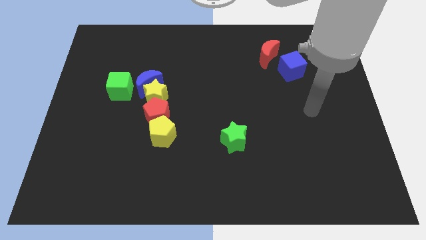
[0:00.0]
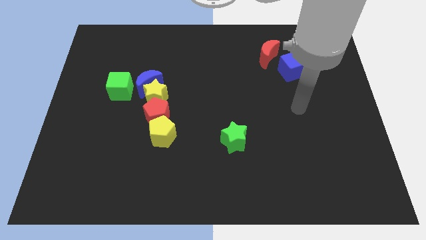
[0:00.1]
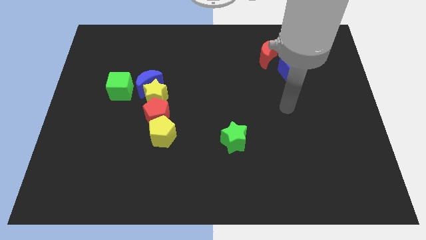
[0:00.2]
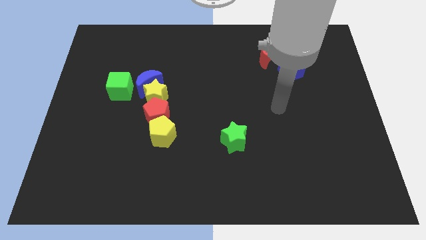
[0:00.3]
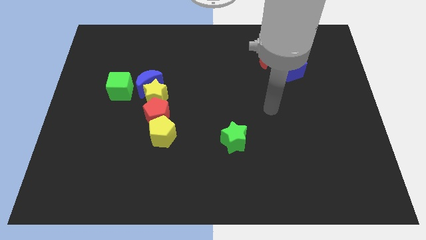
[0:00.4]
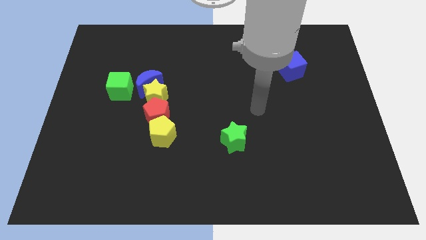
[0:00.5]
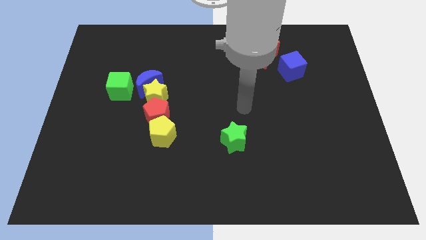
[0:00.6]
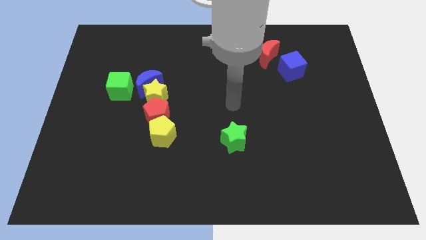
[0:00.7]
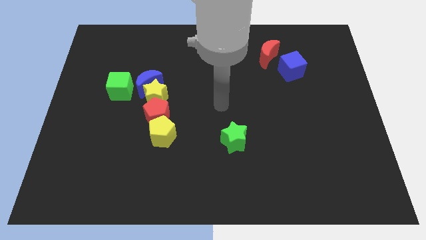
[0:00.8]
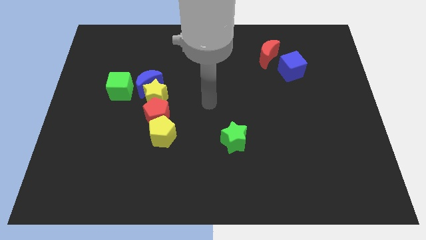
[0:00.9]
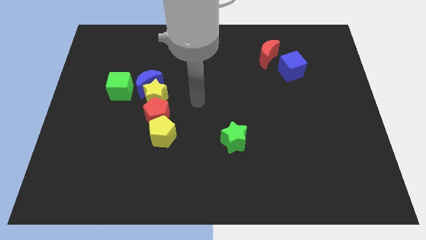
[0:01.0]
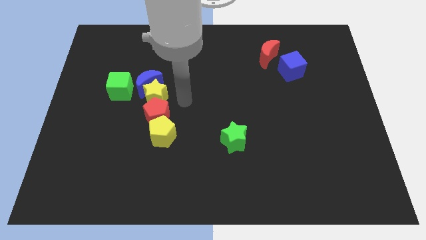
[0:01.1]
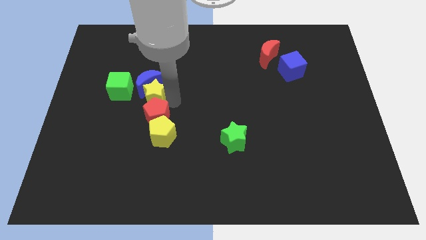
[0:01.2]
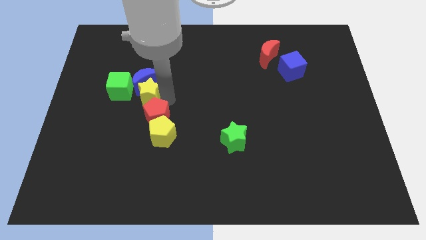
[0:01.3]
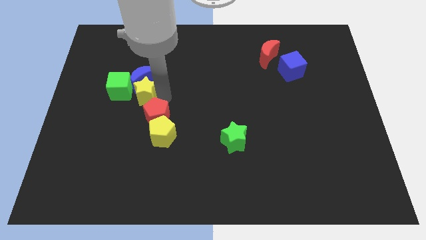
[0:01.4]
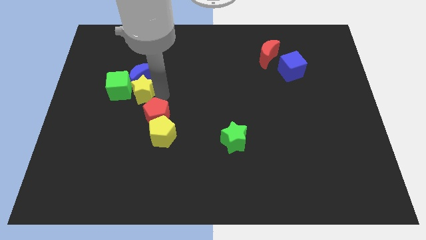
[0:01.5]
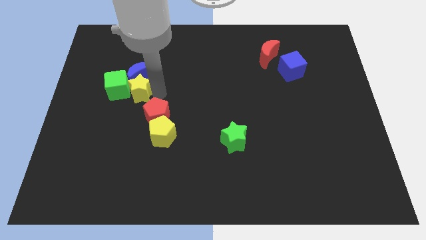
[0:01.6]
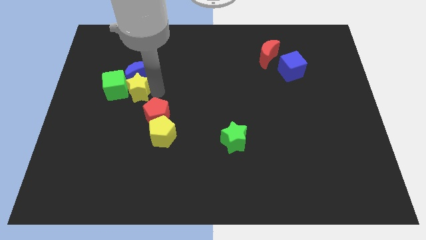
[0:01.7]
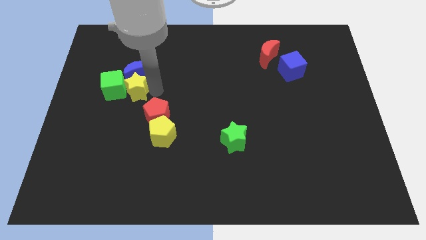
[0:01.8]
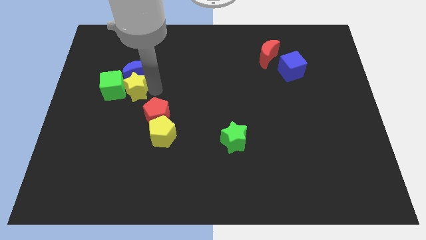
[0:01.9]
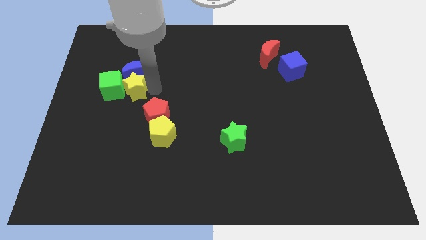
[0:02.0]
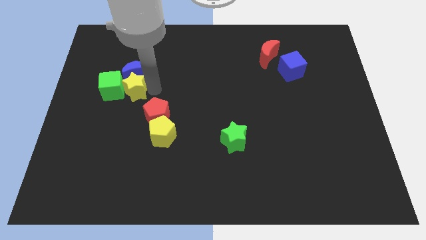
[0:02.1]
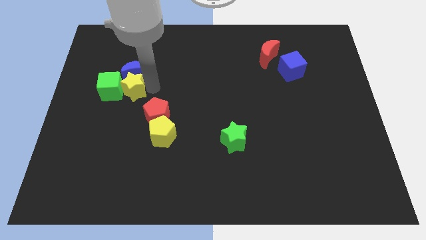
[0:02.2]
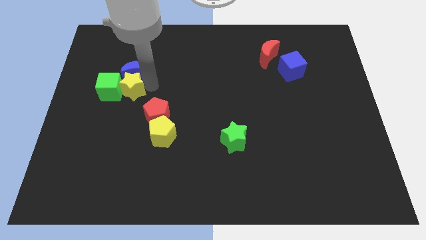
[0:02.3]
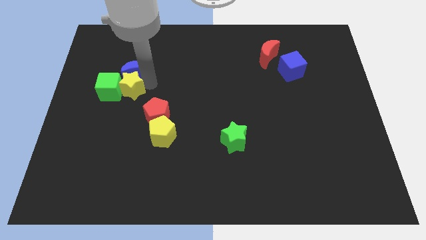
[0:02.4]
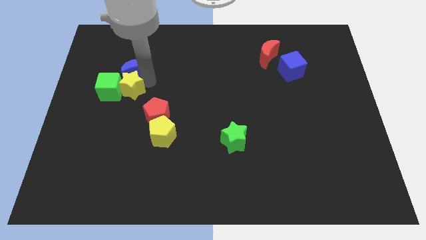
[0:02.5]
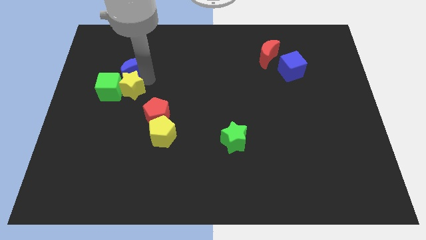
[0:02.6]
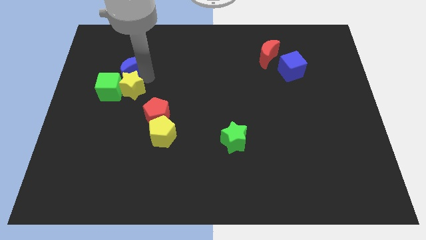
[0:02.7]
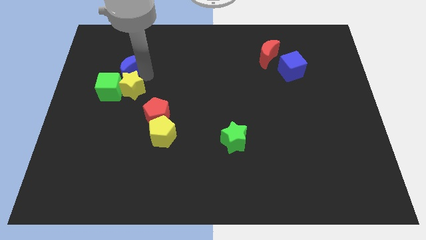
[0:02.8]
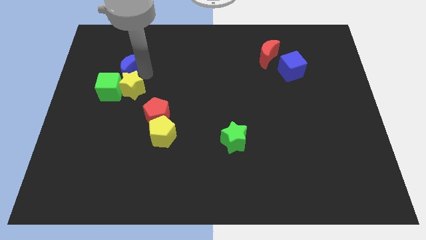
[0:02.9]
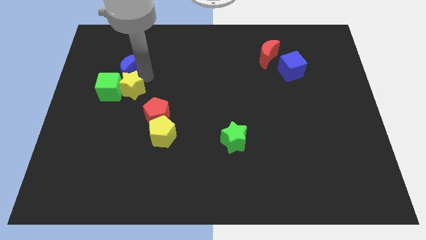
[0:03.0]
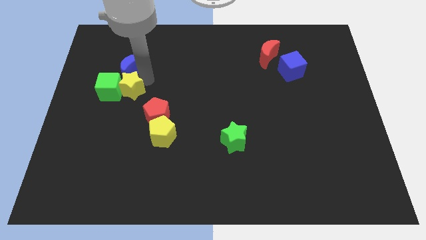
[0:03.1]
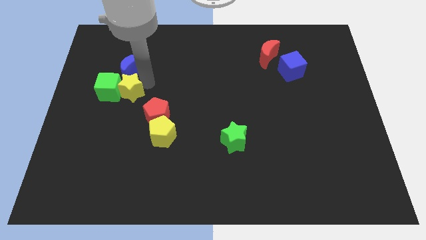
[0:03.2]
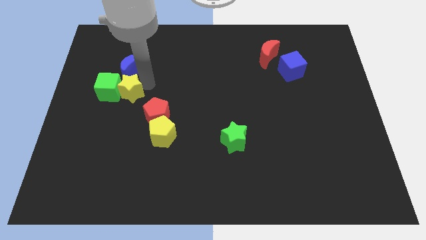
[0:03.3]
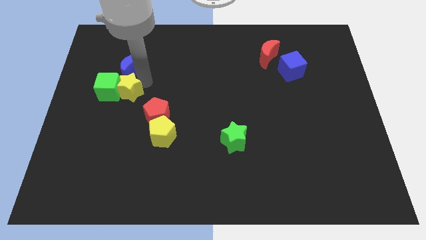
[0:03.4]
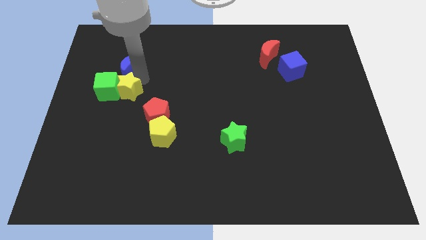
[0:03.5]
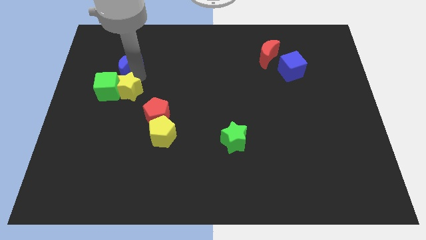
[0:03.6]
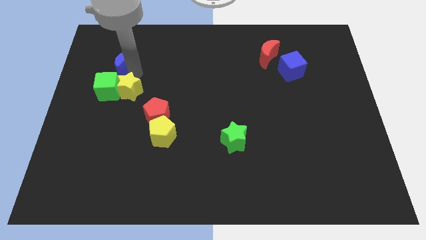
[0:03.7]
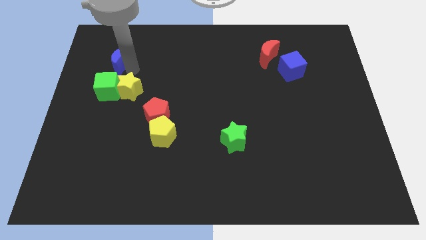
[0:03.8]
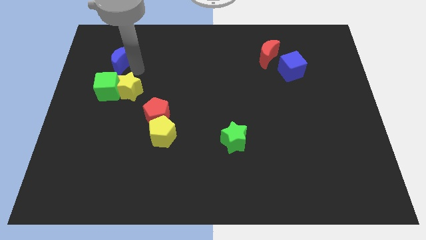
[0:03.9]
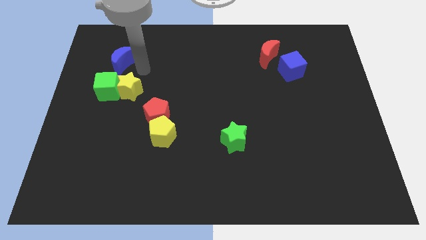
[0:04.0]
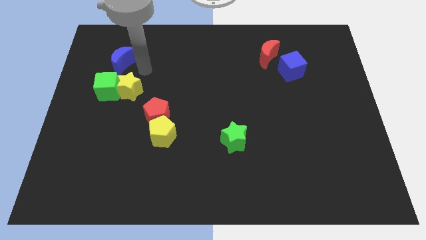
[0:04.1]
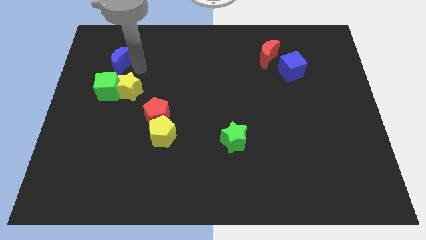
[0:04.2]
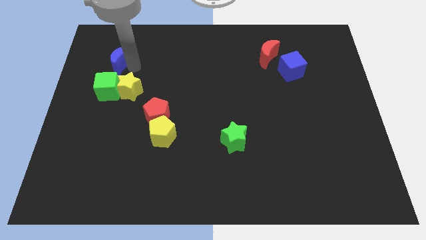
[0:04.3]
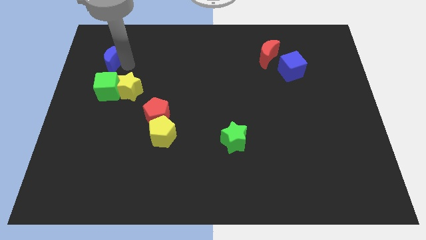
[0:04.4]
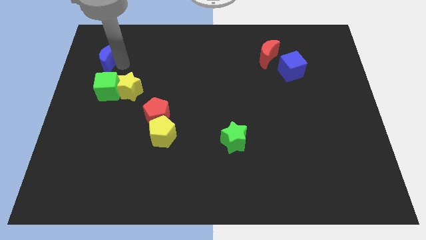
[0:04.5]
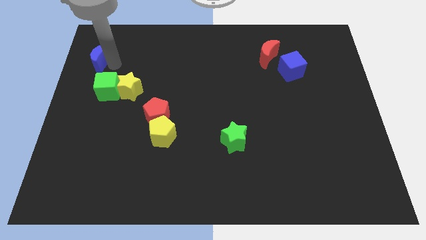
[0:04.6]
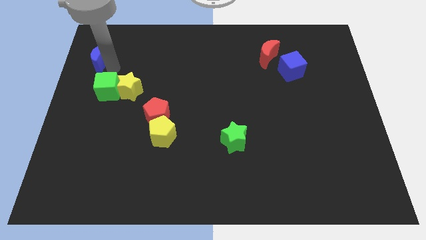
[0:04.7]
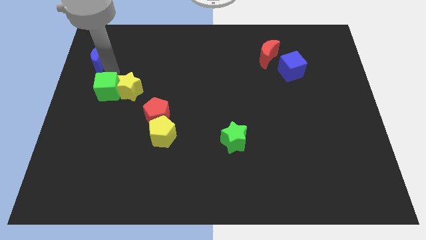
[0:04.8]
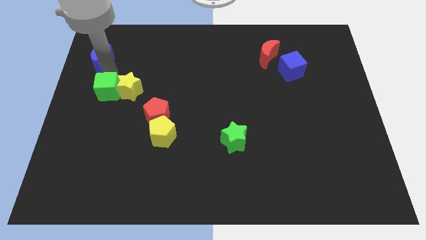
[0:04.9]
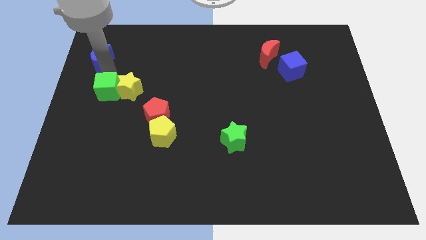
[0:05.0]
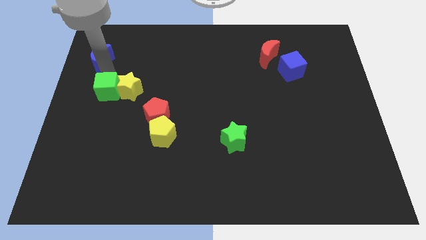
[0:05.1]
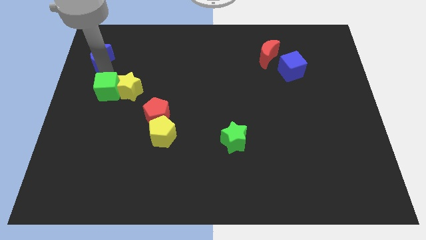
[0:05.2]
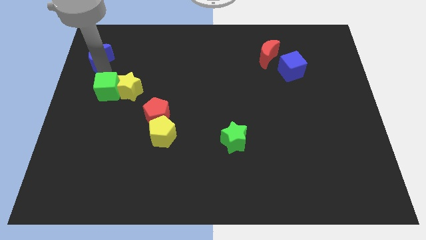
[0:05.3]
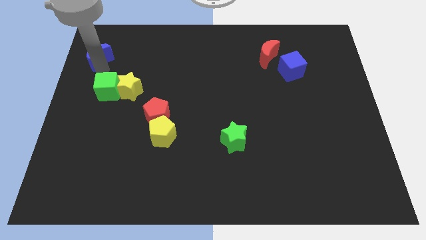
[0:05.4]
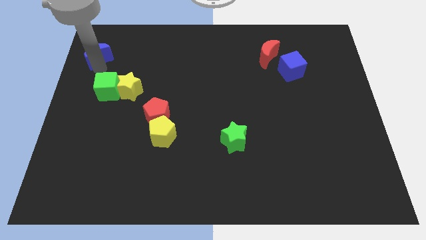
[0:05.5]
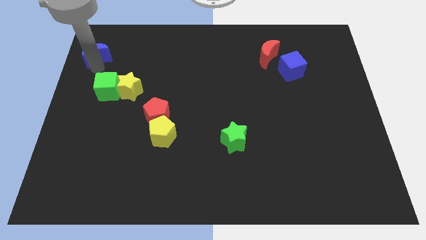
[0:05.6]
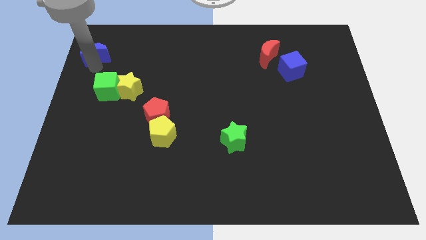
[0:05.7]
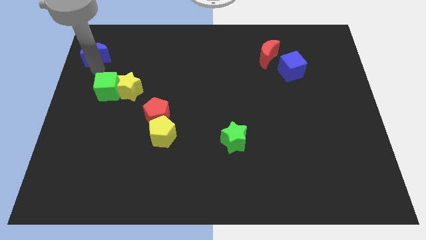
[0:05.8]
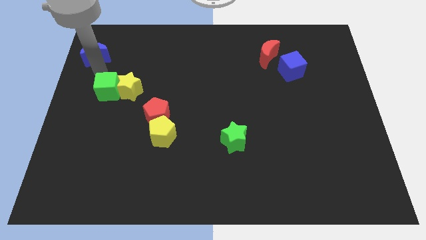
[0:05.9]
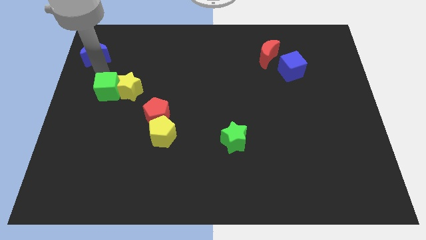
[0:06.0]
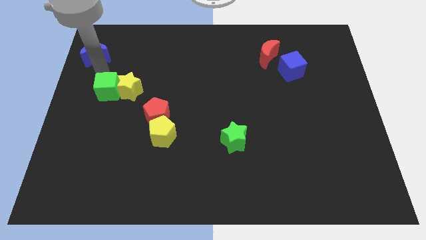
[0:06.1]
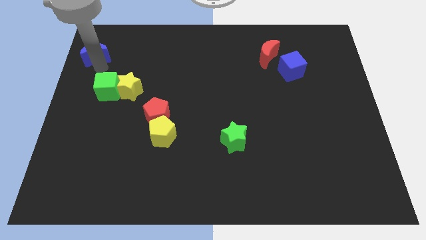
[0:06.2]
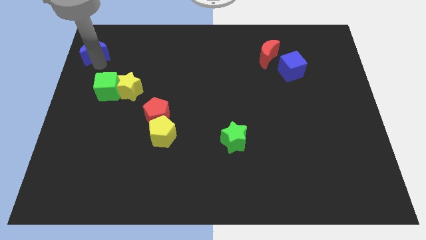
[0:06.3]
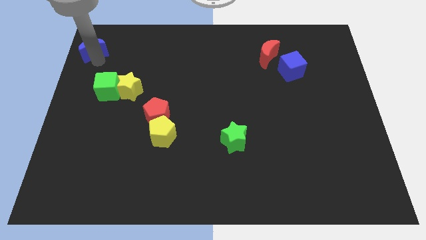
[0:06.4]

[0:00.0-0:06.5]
move the blue moon to the top left of the board
